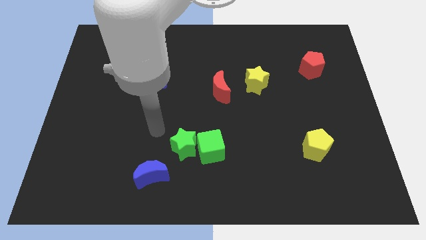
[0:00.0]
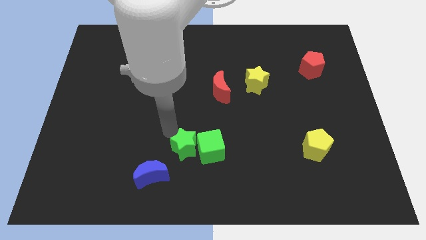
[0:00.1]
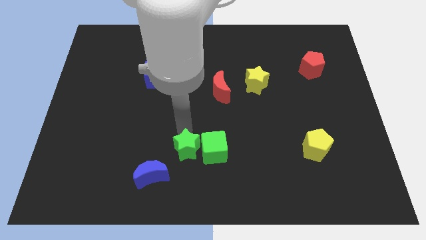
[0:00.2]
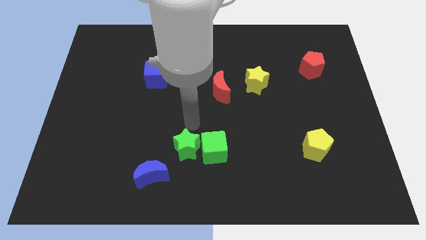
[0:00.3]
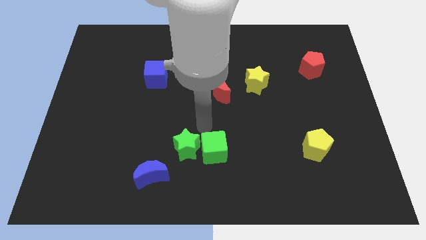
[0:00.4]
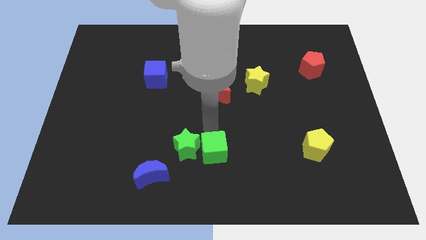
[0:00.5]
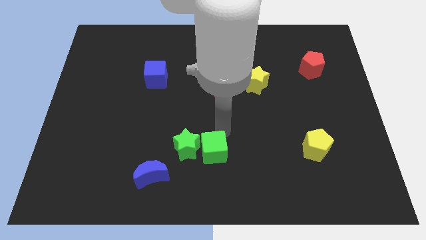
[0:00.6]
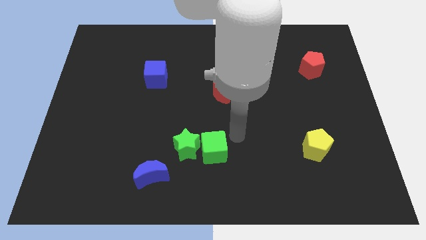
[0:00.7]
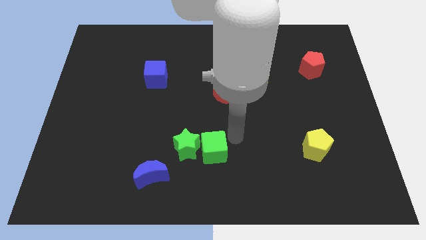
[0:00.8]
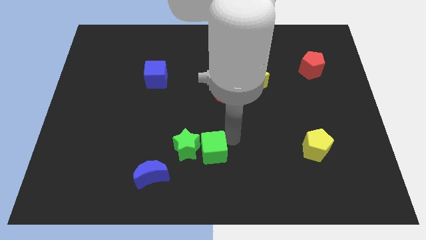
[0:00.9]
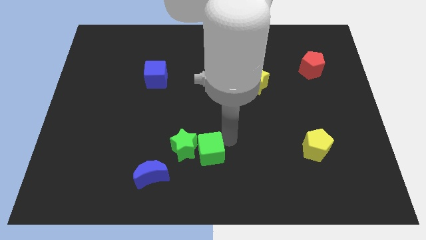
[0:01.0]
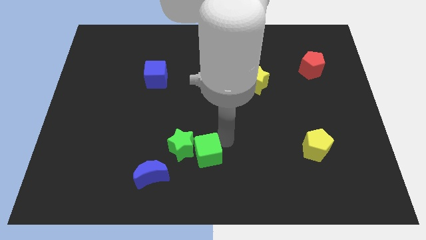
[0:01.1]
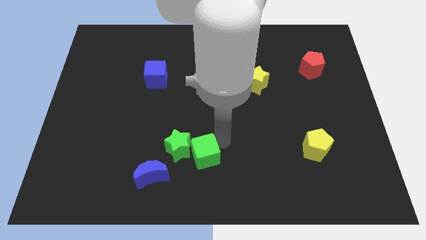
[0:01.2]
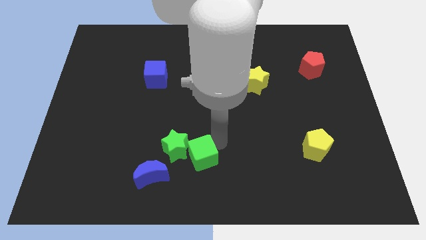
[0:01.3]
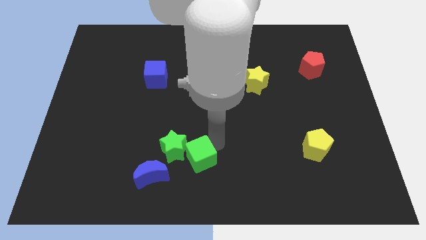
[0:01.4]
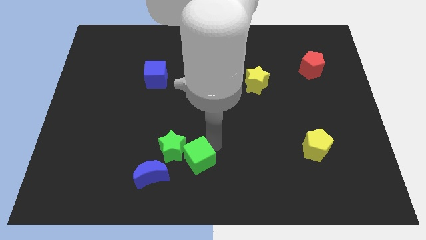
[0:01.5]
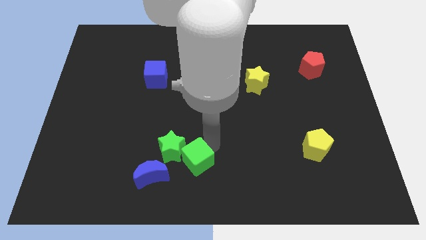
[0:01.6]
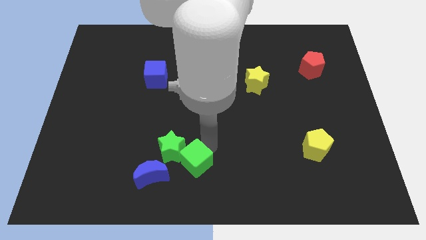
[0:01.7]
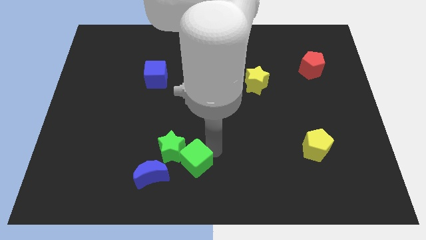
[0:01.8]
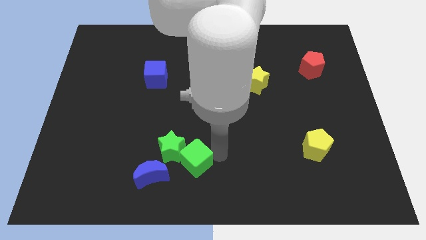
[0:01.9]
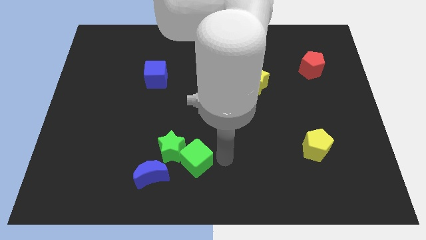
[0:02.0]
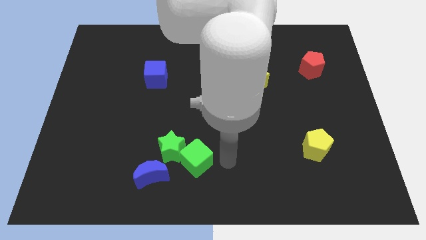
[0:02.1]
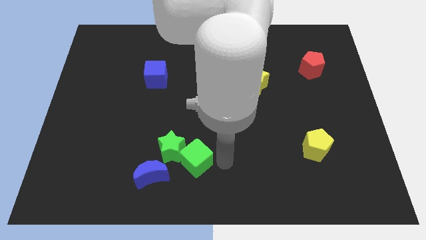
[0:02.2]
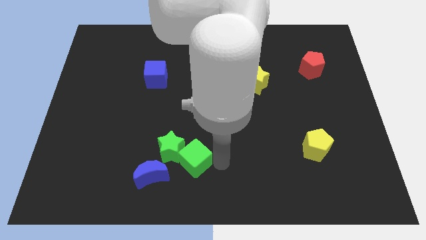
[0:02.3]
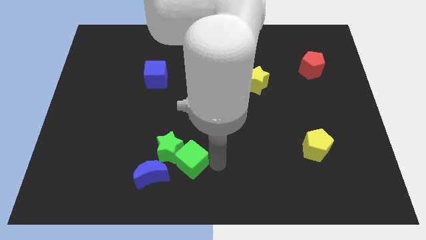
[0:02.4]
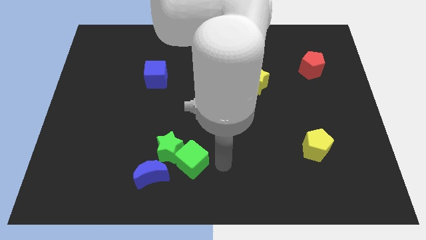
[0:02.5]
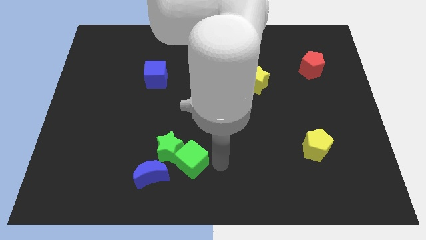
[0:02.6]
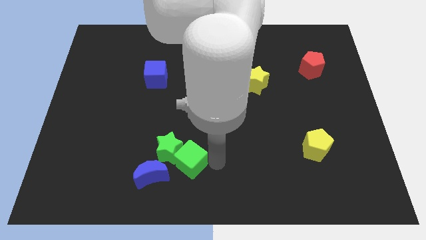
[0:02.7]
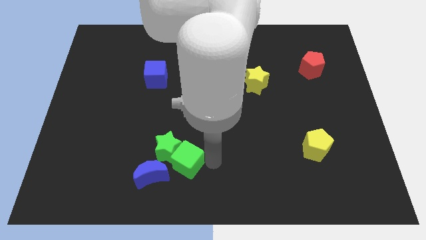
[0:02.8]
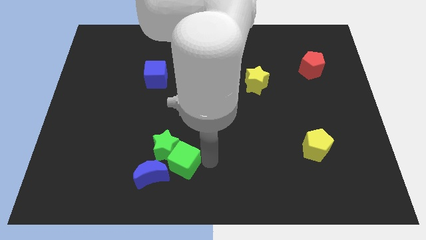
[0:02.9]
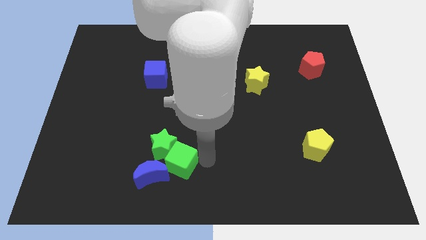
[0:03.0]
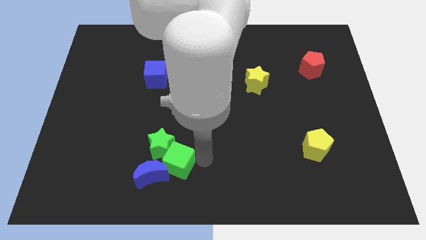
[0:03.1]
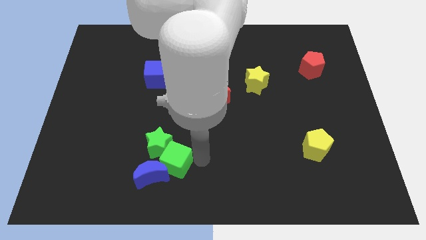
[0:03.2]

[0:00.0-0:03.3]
move the green cube a little left

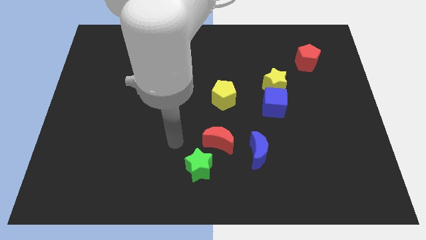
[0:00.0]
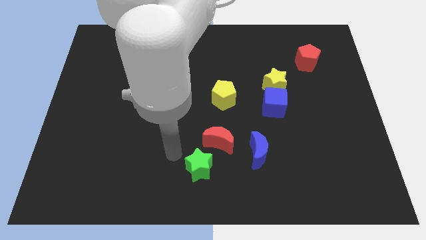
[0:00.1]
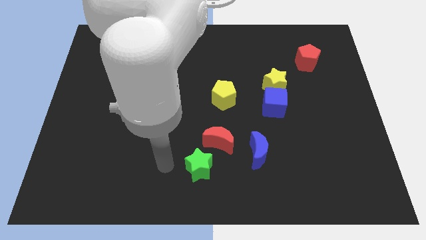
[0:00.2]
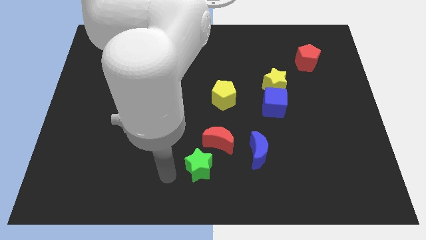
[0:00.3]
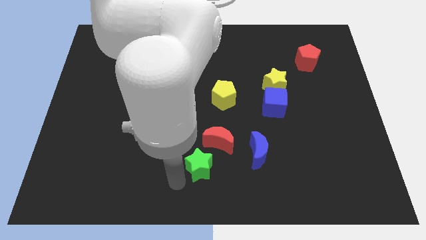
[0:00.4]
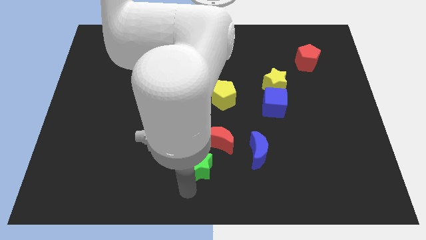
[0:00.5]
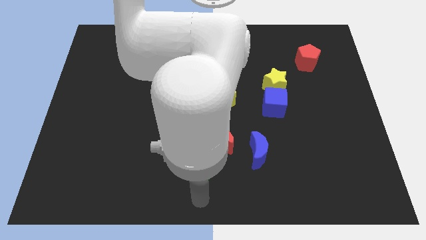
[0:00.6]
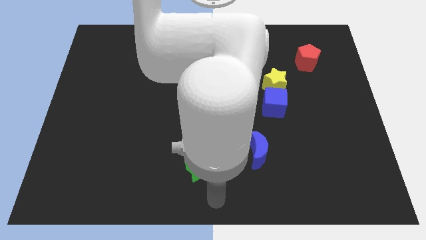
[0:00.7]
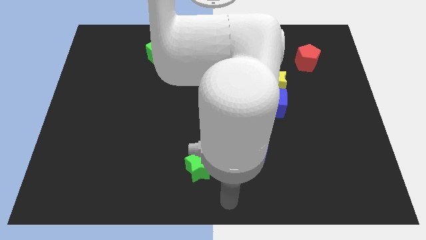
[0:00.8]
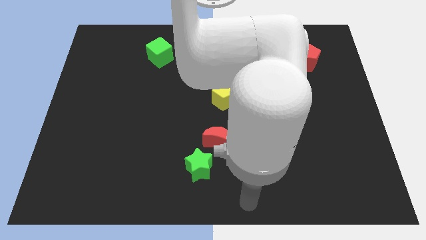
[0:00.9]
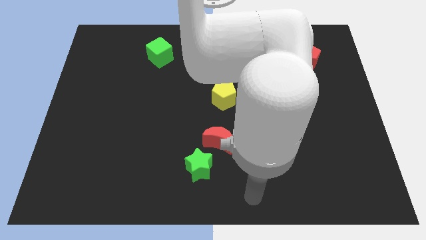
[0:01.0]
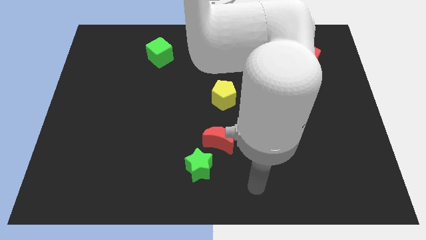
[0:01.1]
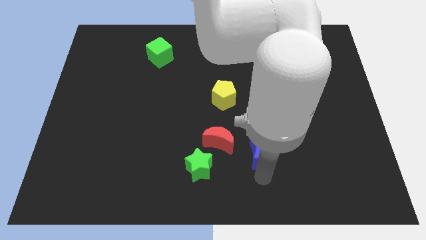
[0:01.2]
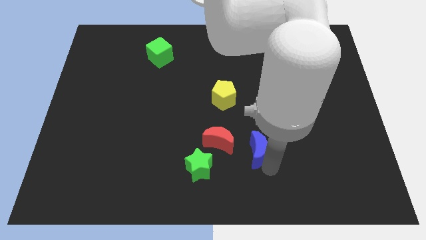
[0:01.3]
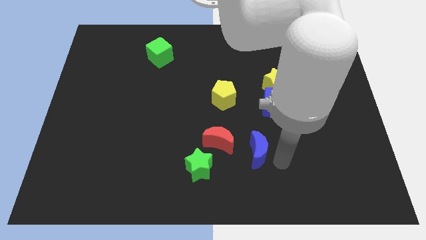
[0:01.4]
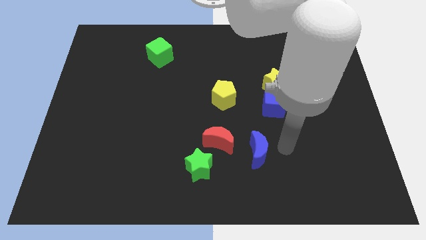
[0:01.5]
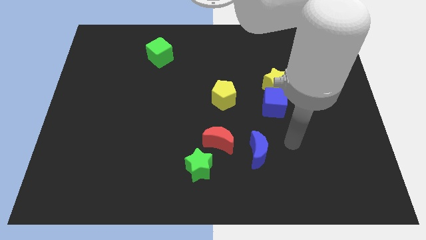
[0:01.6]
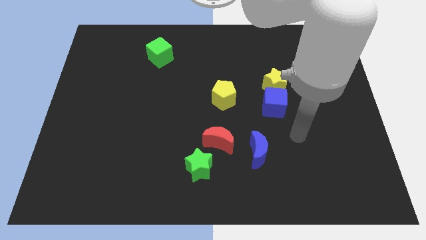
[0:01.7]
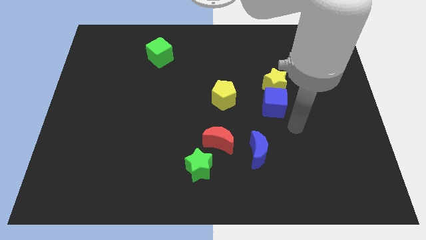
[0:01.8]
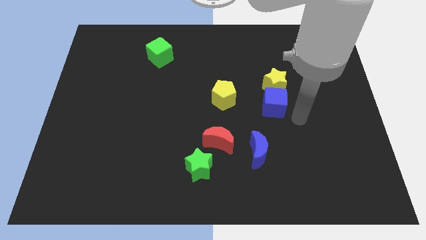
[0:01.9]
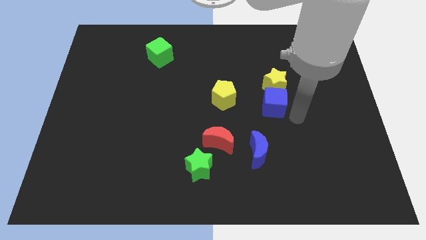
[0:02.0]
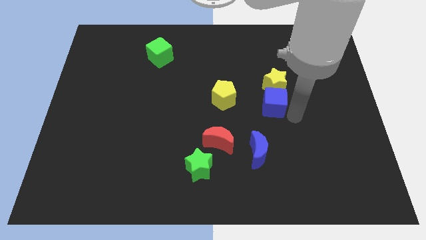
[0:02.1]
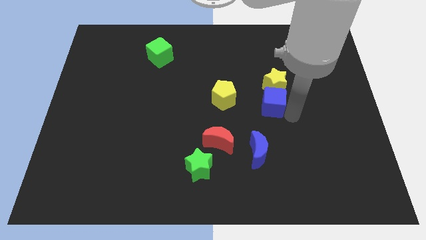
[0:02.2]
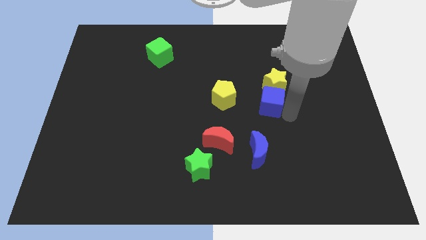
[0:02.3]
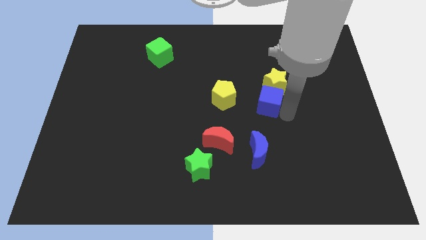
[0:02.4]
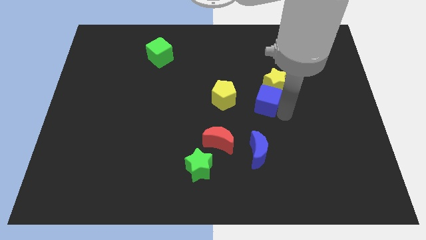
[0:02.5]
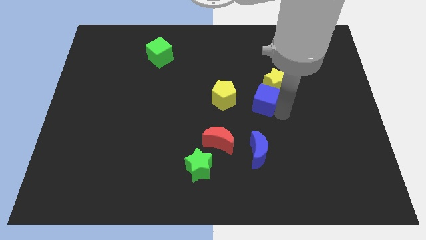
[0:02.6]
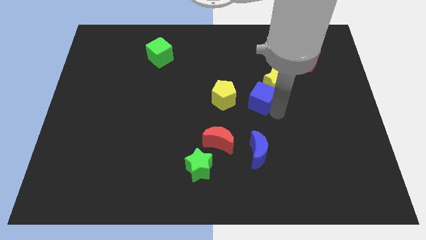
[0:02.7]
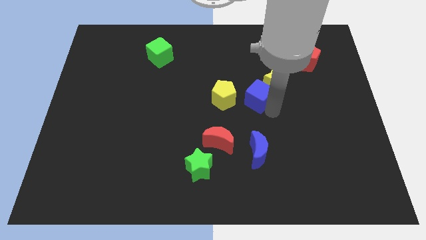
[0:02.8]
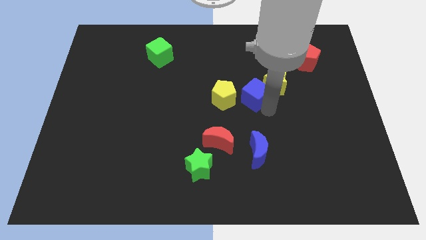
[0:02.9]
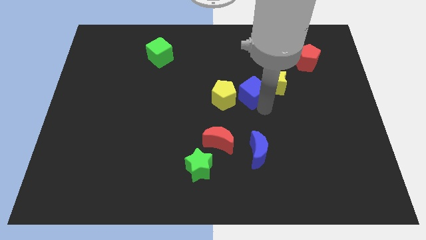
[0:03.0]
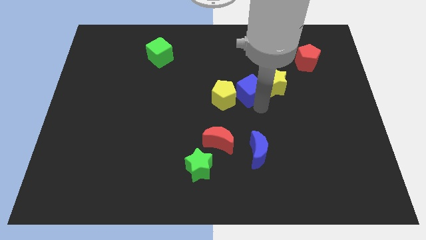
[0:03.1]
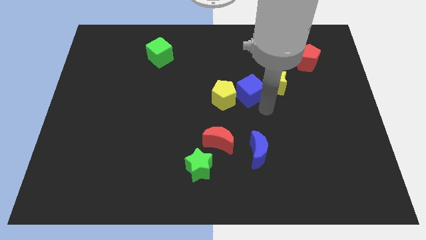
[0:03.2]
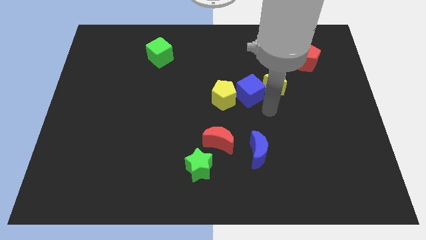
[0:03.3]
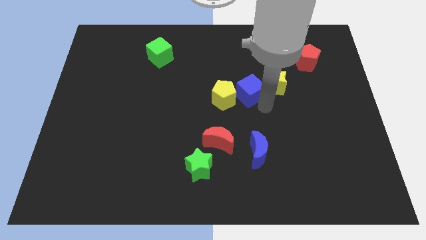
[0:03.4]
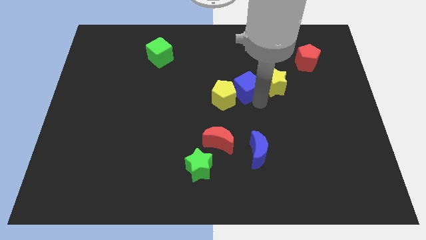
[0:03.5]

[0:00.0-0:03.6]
slightly move the blue cube upwards and to the left

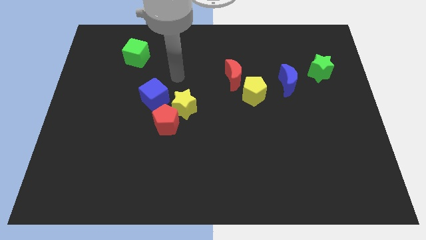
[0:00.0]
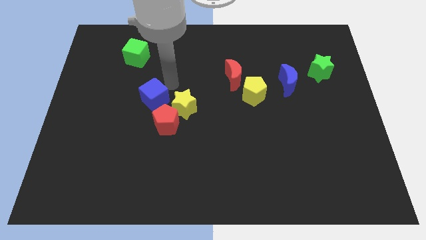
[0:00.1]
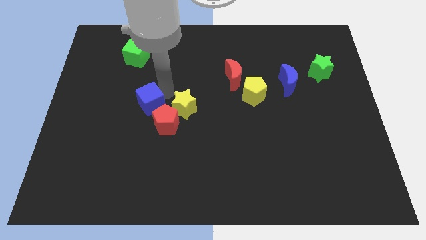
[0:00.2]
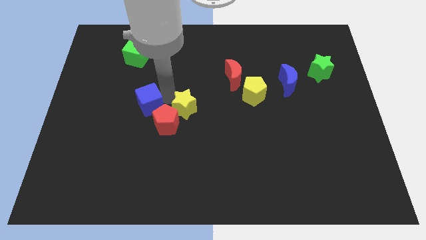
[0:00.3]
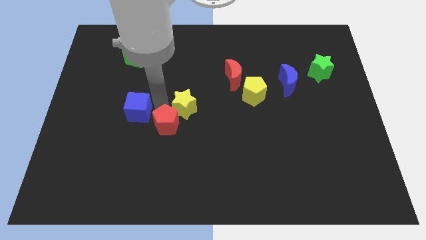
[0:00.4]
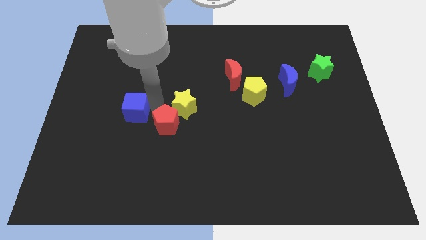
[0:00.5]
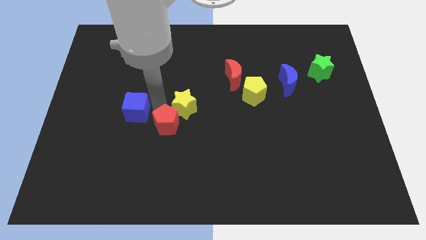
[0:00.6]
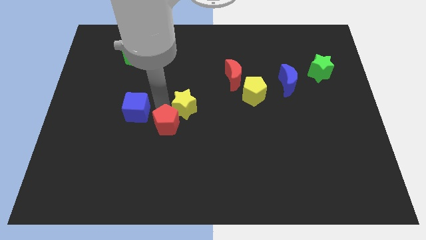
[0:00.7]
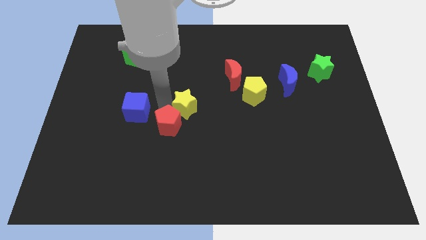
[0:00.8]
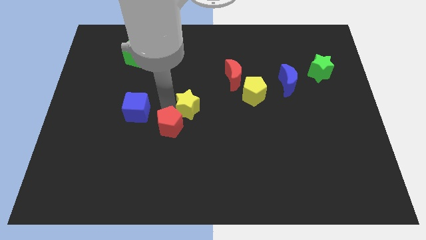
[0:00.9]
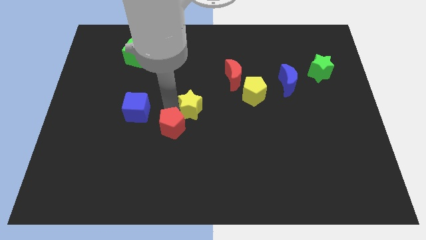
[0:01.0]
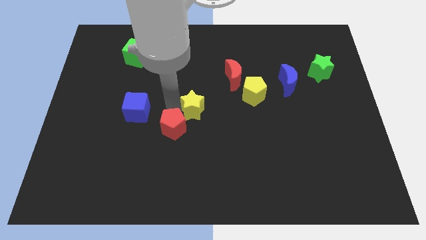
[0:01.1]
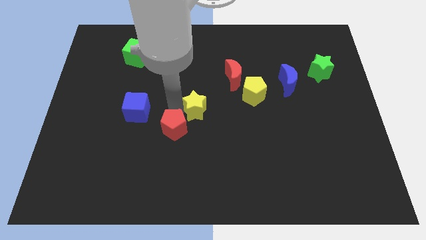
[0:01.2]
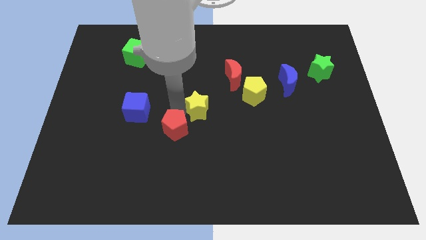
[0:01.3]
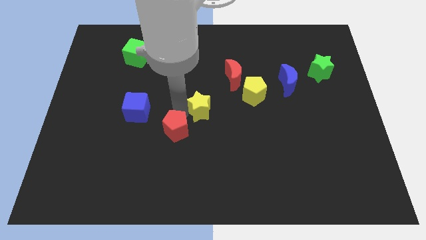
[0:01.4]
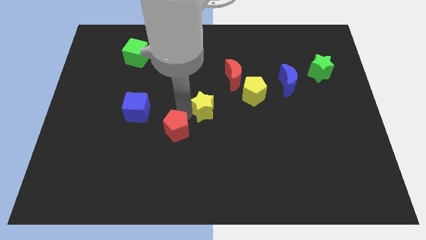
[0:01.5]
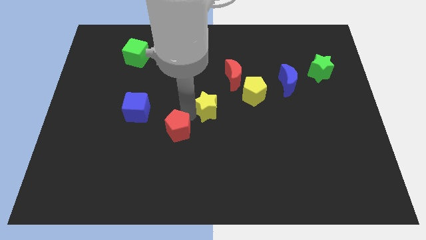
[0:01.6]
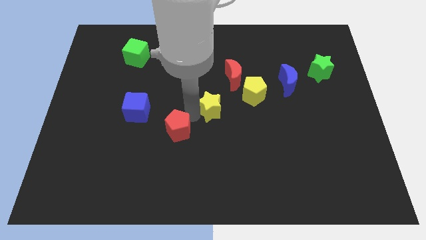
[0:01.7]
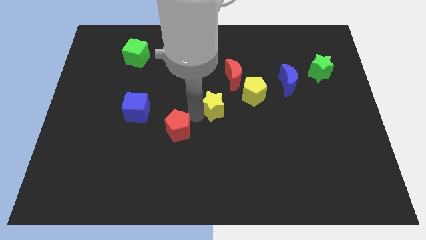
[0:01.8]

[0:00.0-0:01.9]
slightly slide the yellow star to the right
